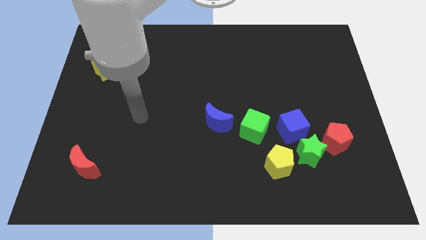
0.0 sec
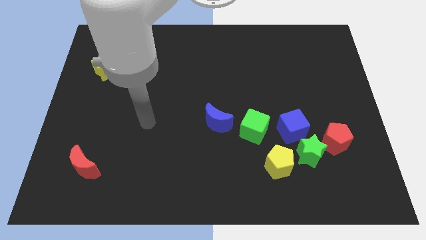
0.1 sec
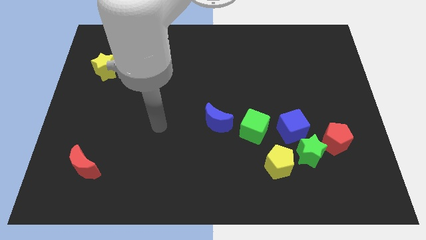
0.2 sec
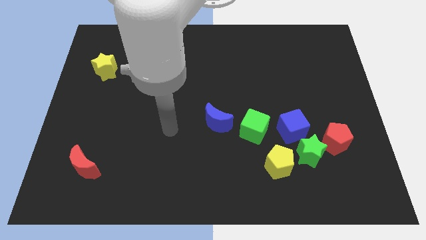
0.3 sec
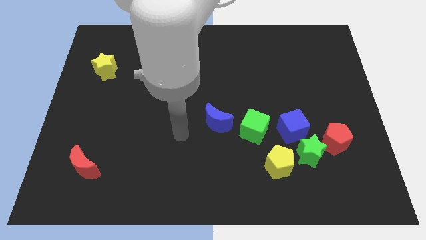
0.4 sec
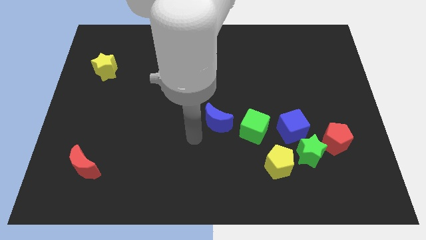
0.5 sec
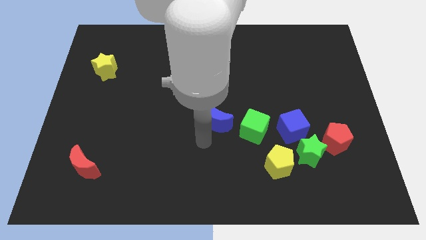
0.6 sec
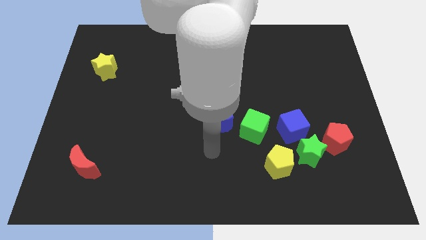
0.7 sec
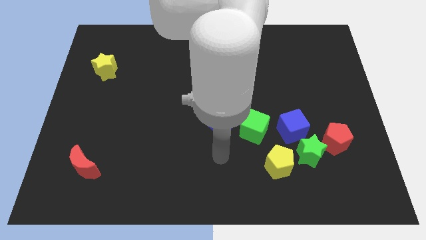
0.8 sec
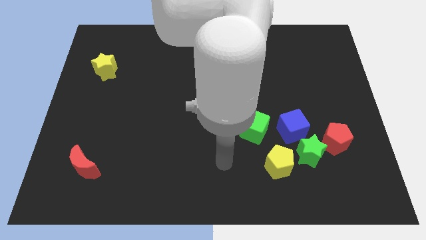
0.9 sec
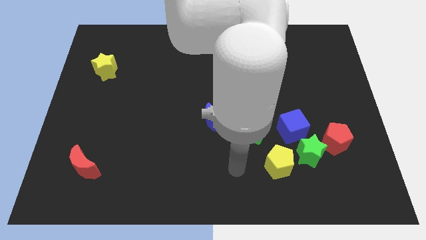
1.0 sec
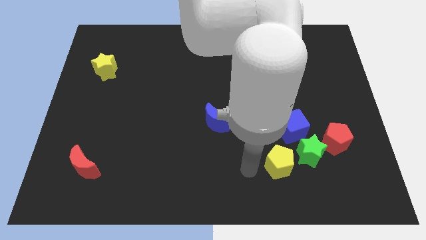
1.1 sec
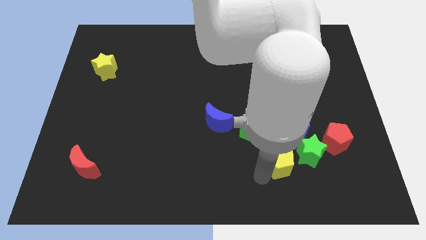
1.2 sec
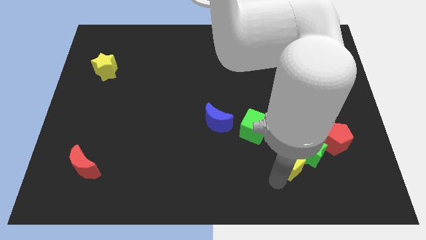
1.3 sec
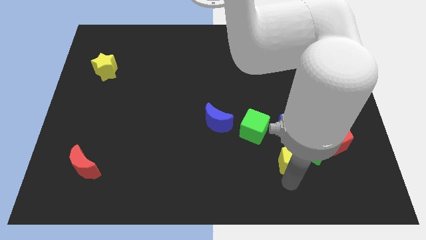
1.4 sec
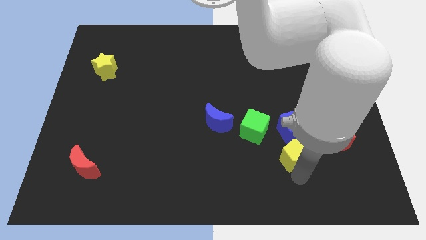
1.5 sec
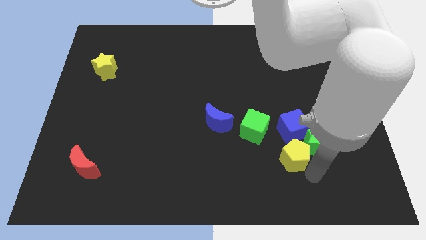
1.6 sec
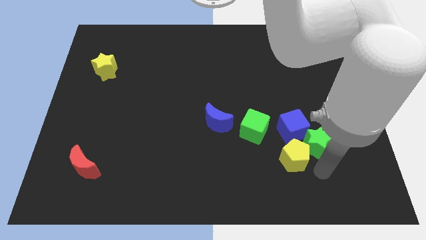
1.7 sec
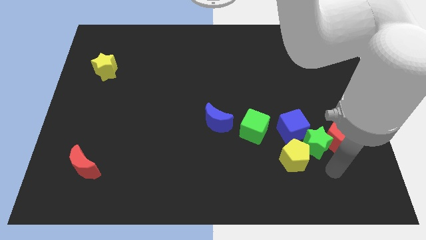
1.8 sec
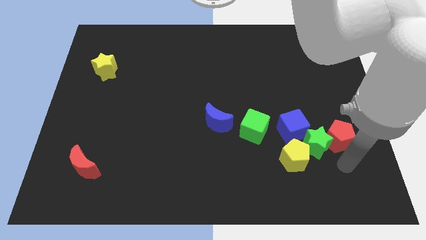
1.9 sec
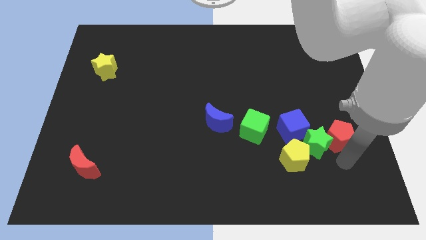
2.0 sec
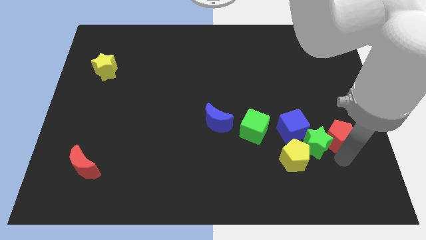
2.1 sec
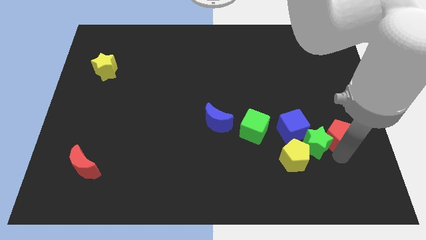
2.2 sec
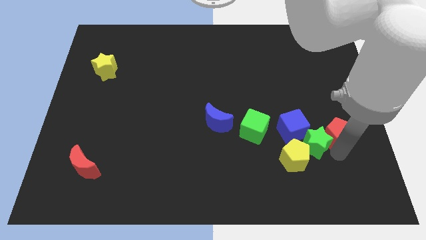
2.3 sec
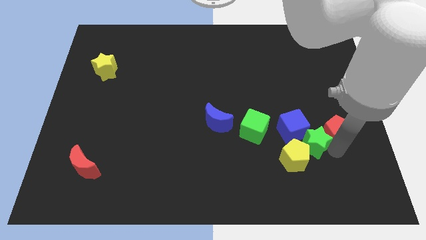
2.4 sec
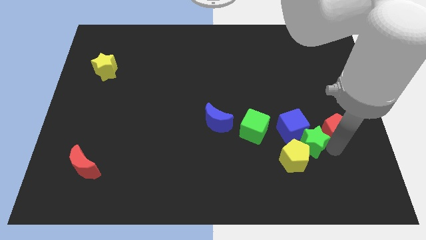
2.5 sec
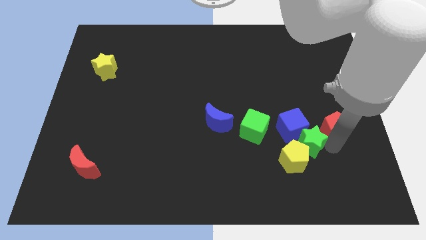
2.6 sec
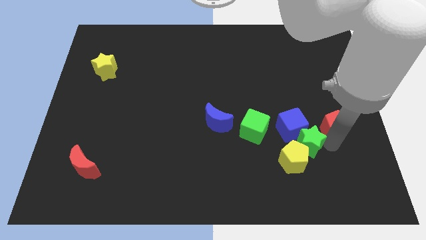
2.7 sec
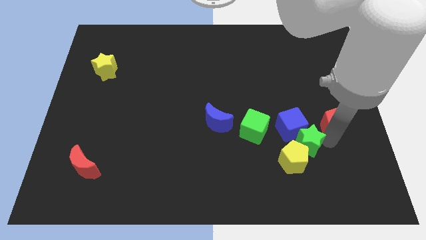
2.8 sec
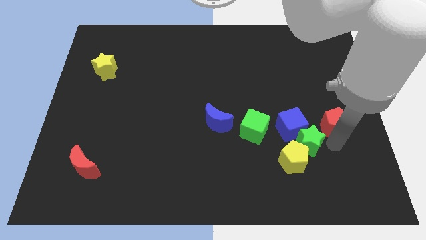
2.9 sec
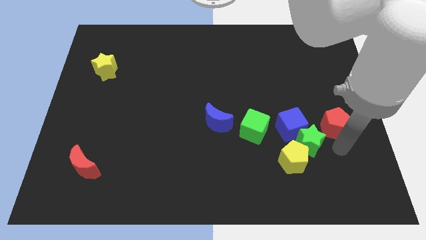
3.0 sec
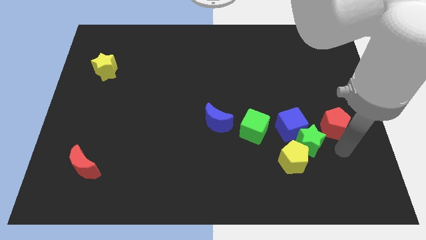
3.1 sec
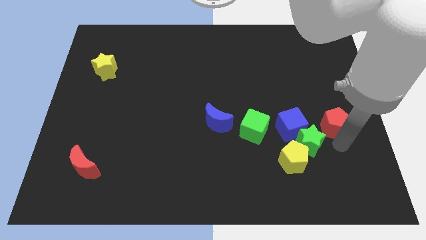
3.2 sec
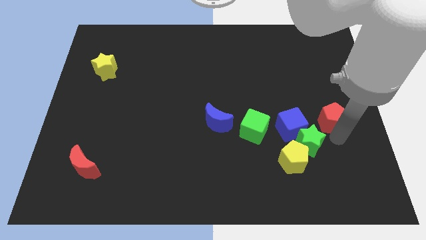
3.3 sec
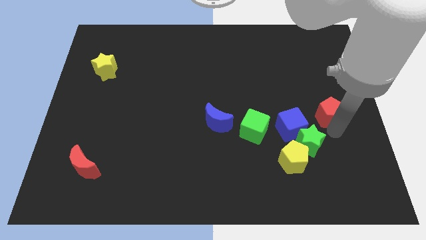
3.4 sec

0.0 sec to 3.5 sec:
move the red pentagon slightly upwards

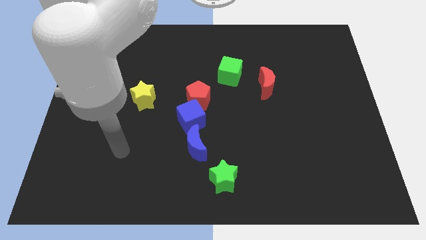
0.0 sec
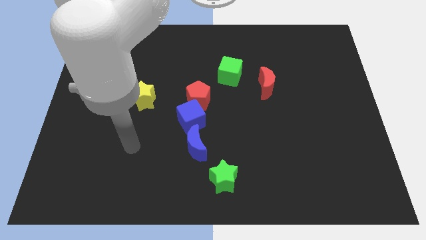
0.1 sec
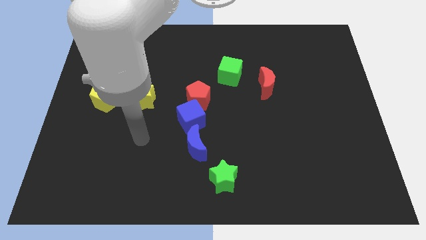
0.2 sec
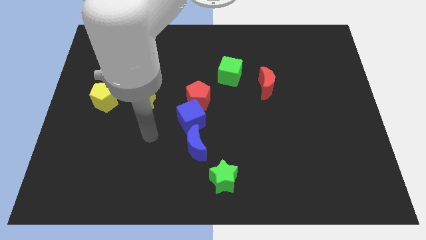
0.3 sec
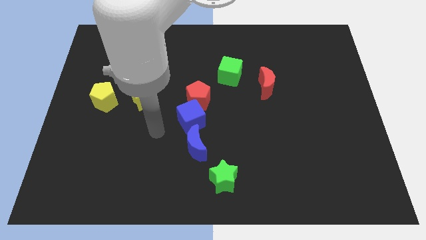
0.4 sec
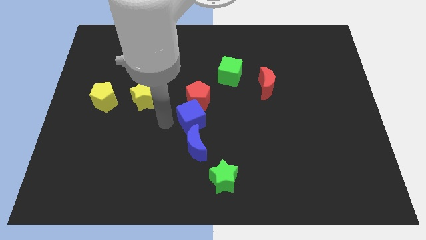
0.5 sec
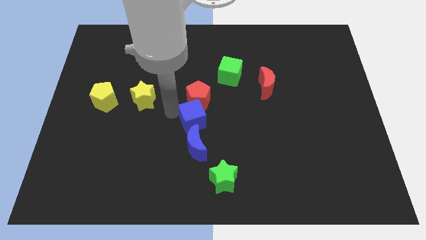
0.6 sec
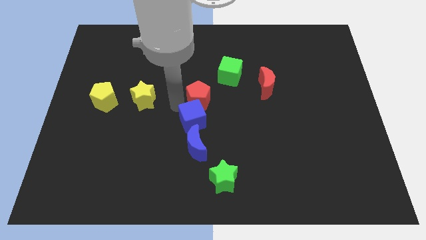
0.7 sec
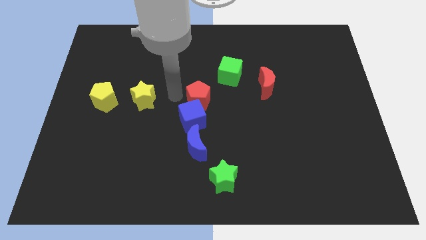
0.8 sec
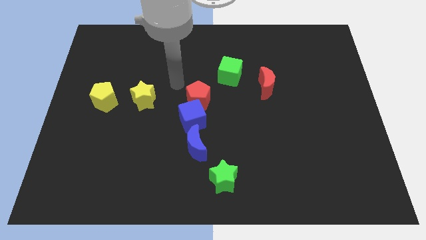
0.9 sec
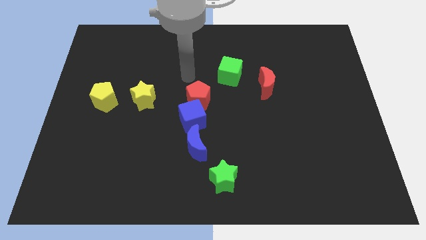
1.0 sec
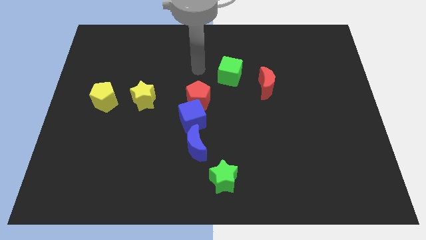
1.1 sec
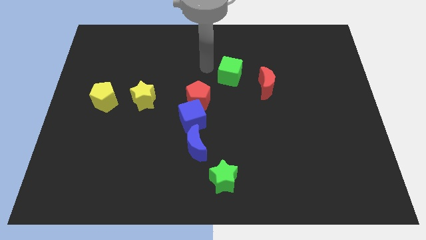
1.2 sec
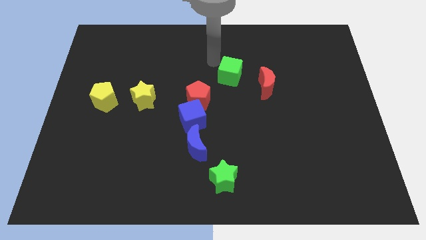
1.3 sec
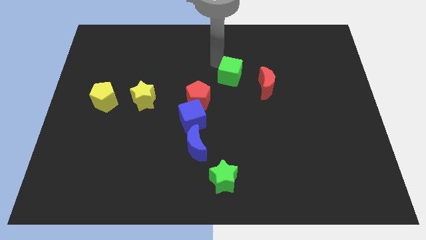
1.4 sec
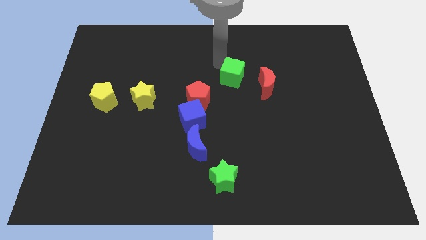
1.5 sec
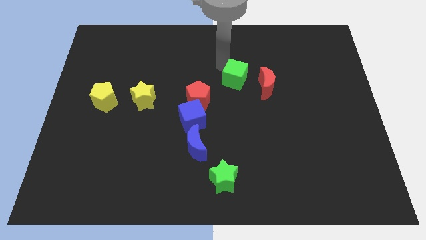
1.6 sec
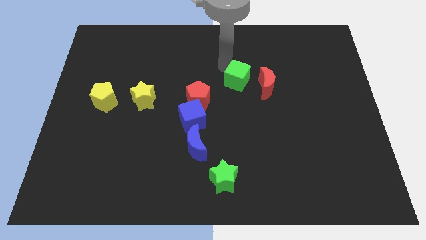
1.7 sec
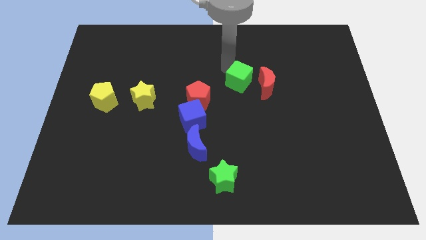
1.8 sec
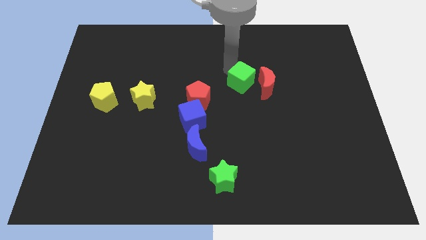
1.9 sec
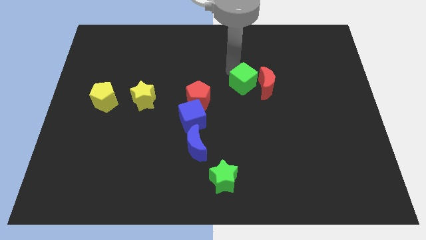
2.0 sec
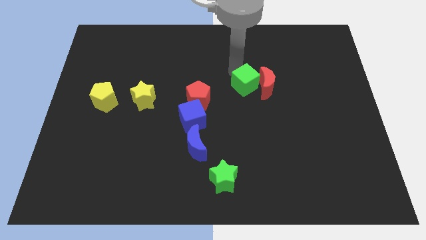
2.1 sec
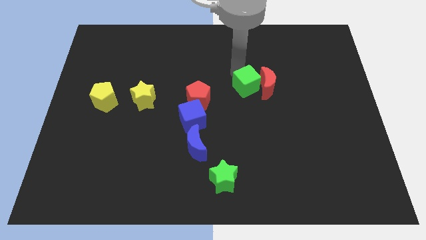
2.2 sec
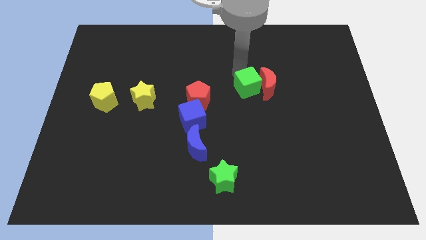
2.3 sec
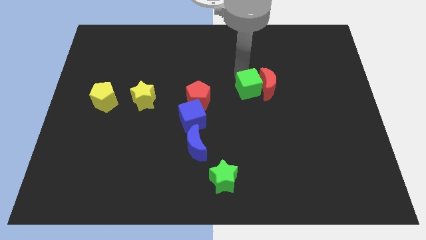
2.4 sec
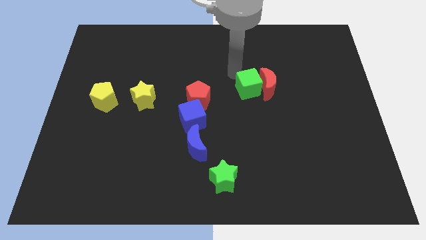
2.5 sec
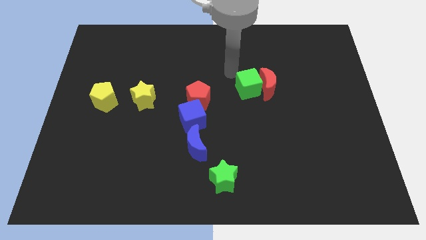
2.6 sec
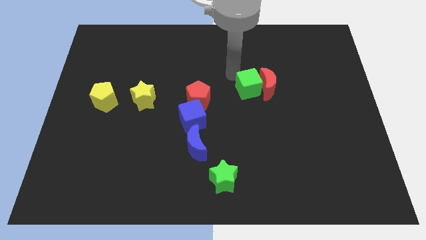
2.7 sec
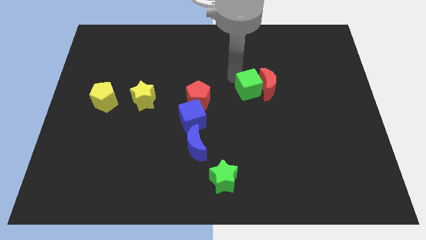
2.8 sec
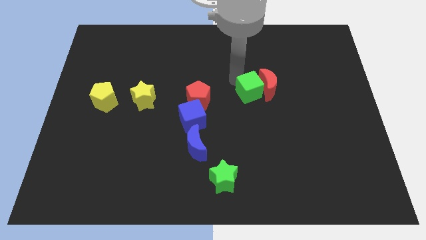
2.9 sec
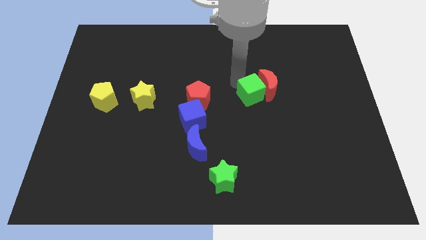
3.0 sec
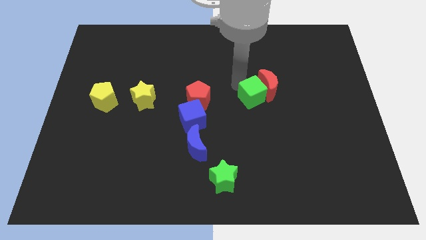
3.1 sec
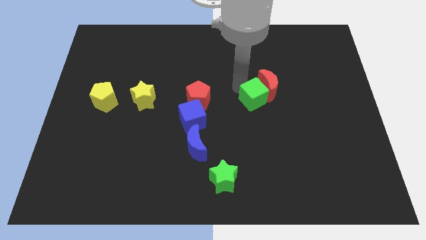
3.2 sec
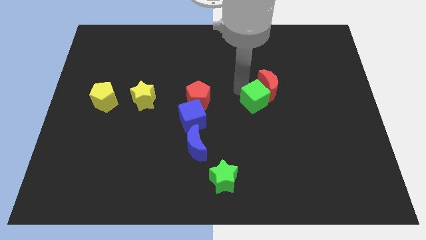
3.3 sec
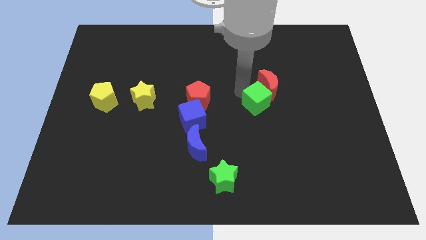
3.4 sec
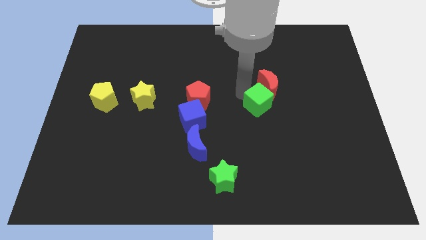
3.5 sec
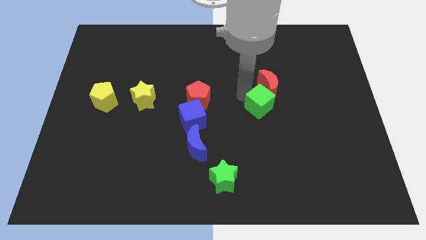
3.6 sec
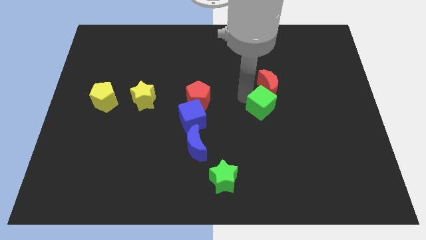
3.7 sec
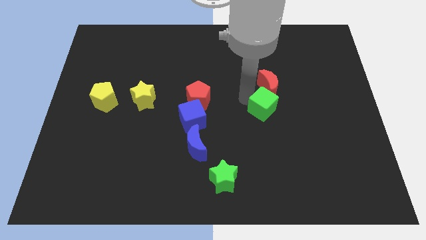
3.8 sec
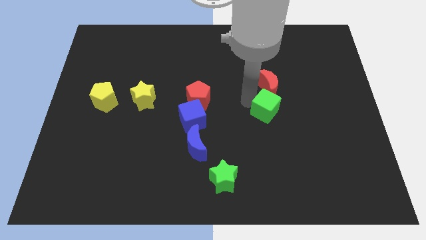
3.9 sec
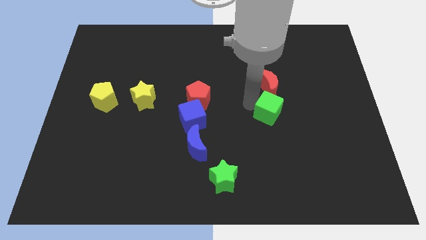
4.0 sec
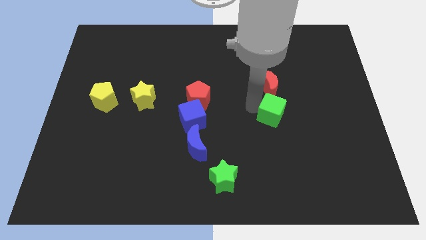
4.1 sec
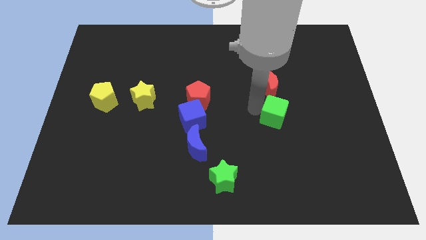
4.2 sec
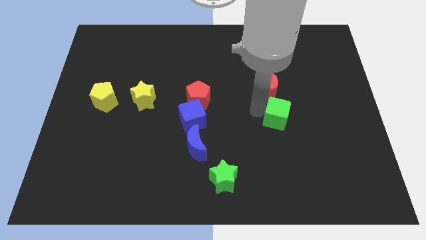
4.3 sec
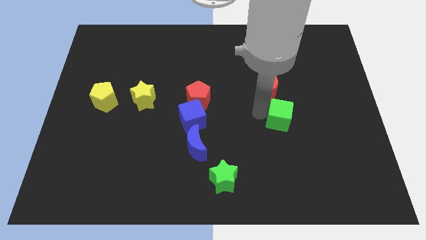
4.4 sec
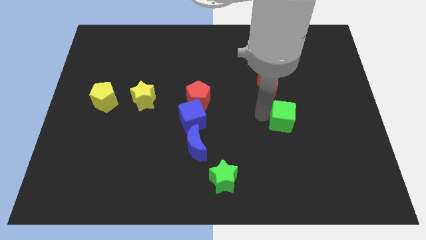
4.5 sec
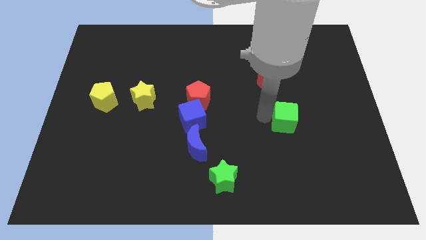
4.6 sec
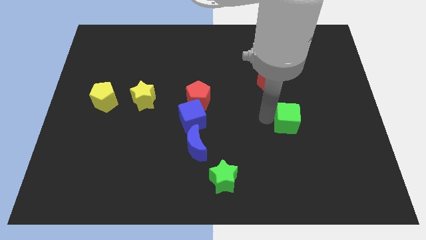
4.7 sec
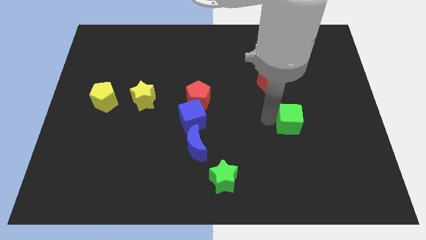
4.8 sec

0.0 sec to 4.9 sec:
slide the green cube down and right
